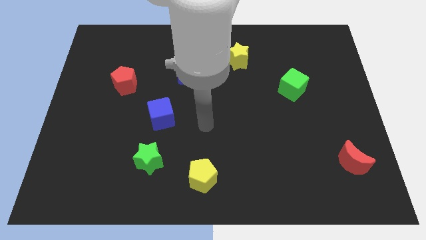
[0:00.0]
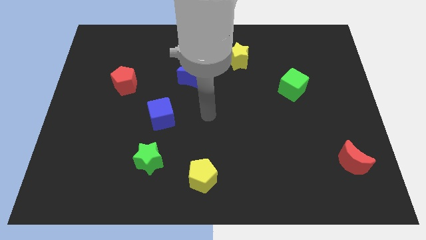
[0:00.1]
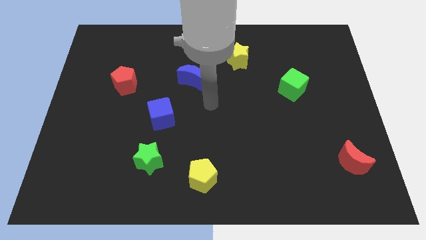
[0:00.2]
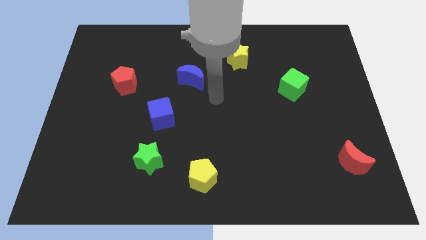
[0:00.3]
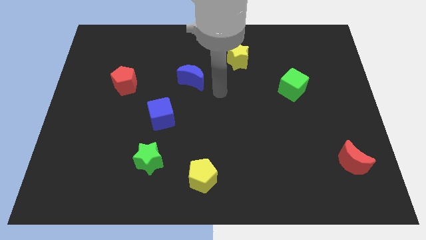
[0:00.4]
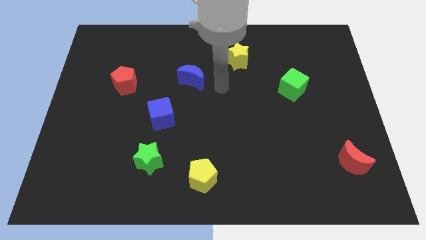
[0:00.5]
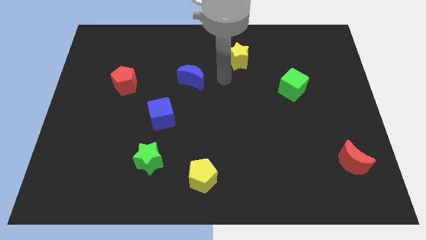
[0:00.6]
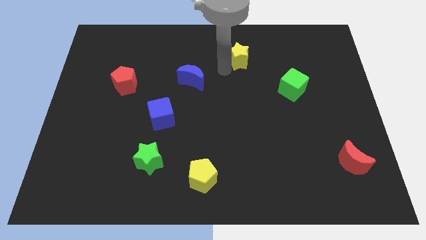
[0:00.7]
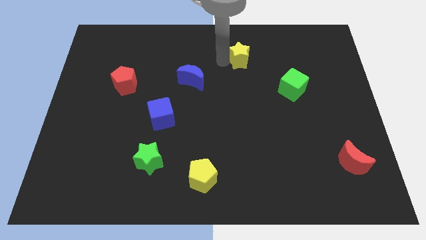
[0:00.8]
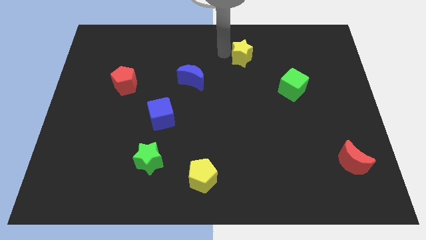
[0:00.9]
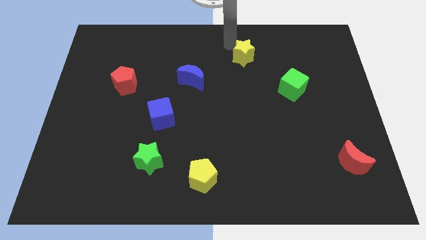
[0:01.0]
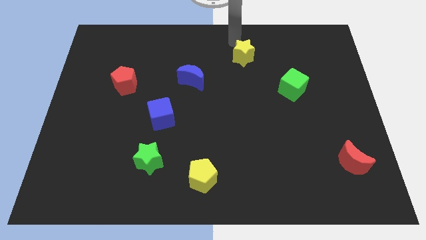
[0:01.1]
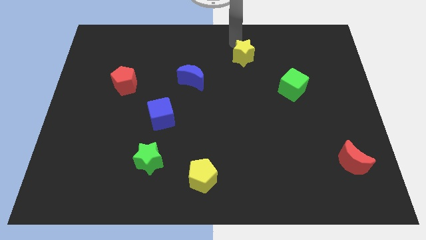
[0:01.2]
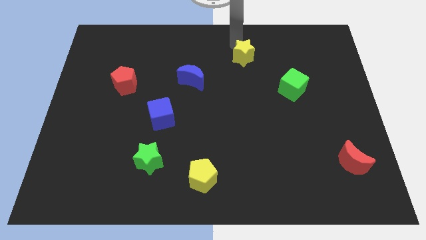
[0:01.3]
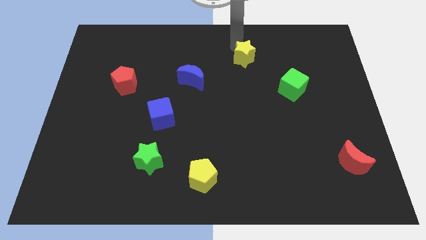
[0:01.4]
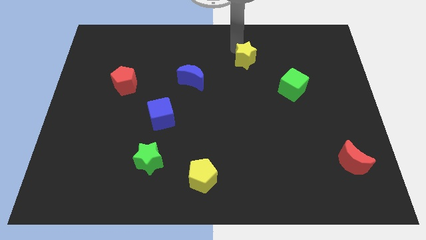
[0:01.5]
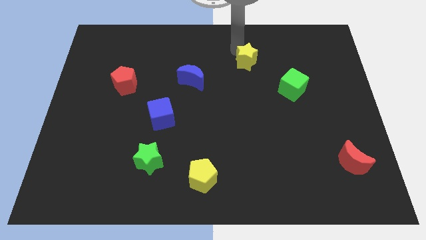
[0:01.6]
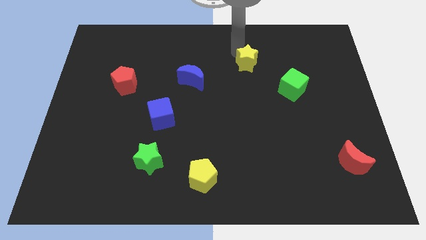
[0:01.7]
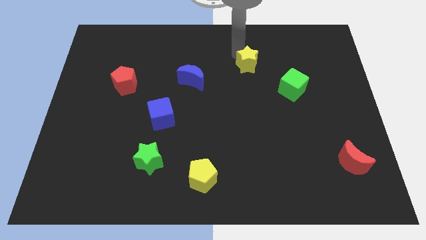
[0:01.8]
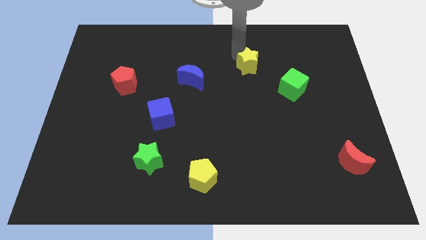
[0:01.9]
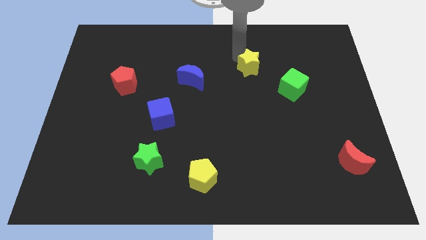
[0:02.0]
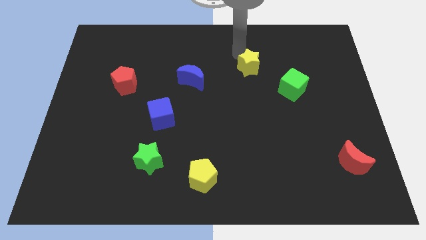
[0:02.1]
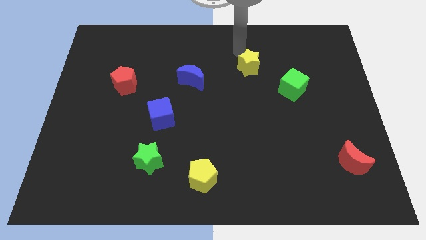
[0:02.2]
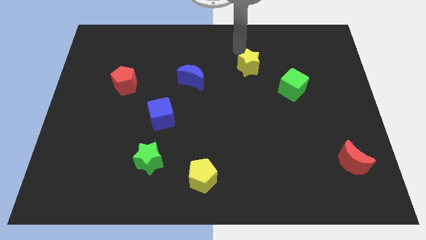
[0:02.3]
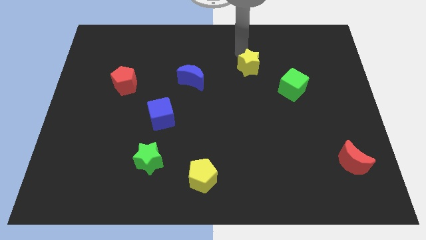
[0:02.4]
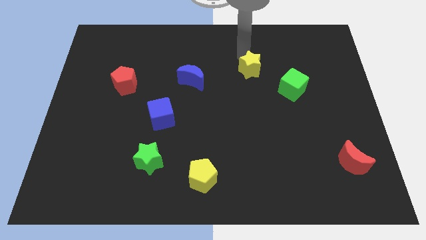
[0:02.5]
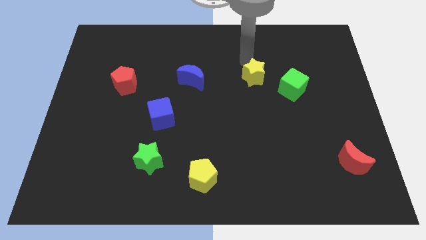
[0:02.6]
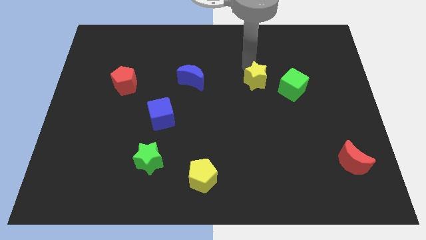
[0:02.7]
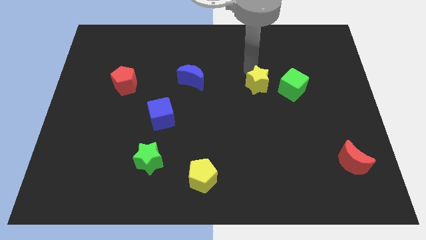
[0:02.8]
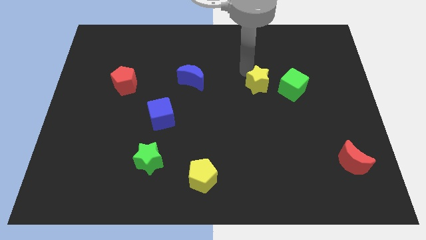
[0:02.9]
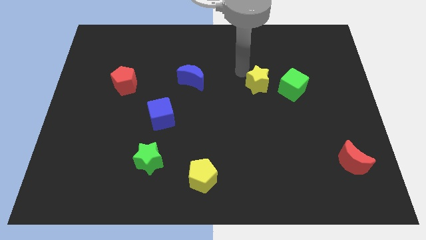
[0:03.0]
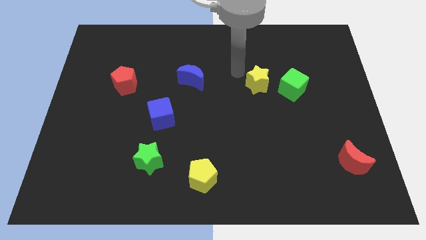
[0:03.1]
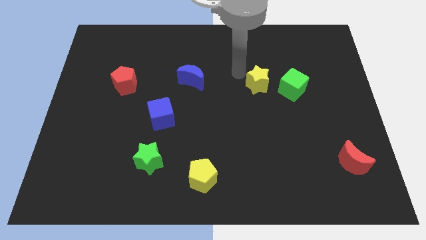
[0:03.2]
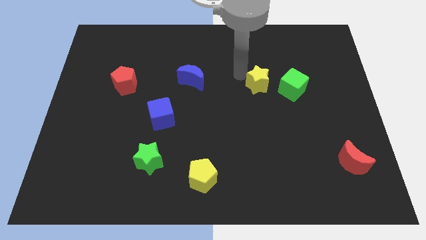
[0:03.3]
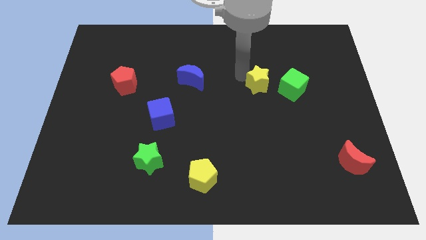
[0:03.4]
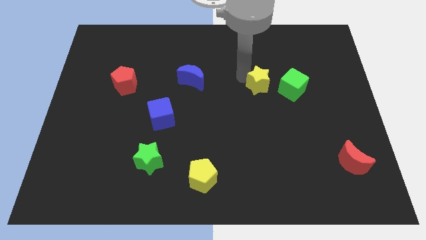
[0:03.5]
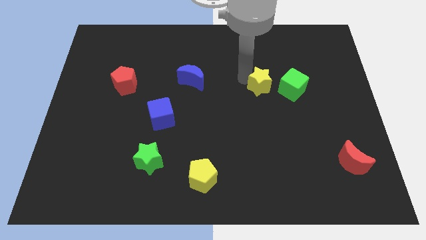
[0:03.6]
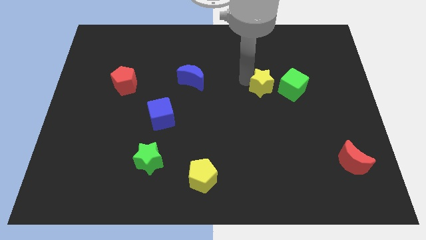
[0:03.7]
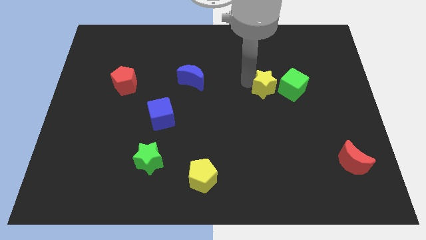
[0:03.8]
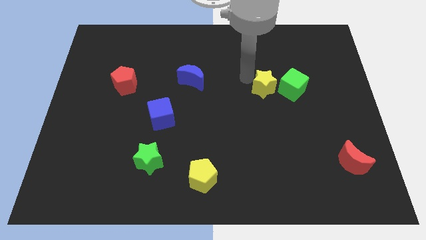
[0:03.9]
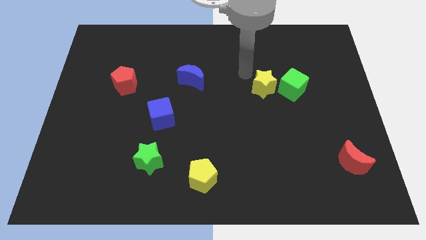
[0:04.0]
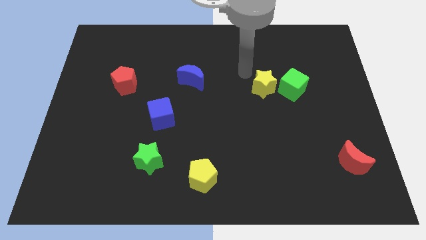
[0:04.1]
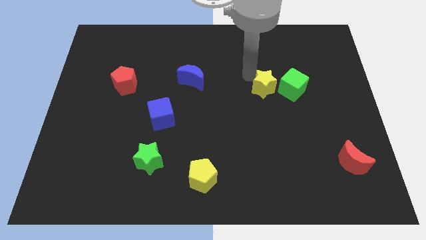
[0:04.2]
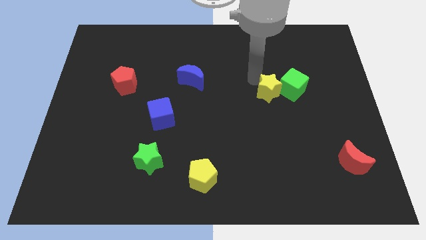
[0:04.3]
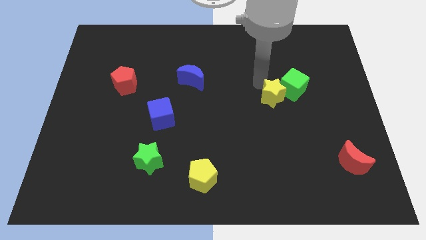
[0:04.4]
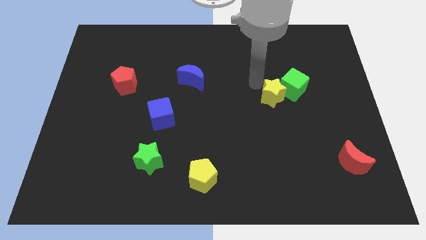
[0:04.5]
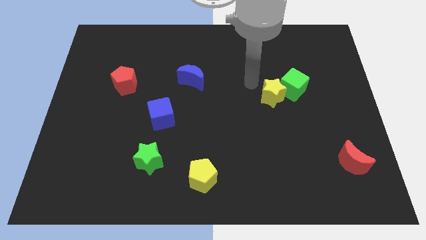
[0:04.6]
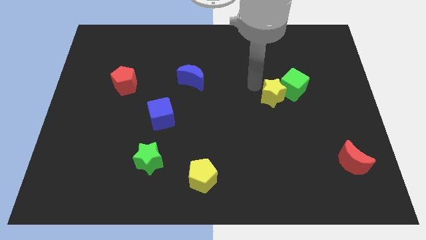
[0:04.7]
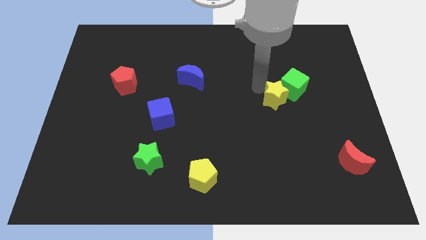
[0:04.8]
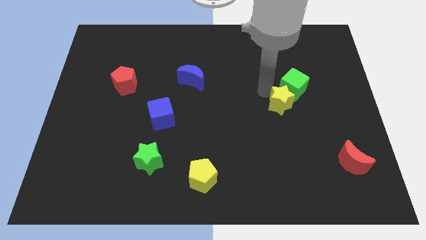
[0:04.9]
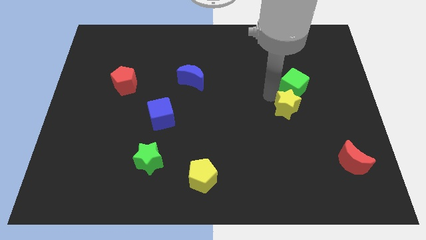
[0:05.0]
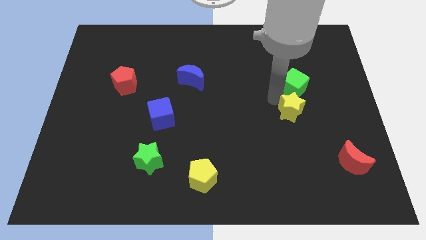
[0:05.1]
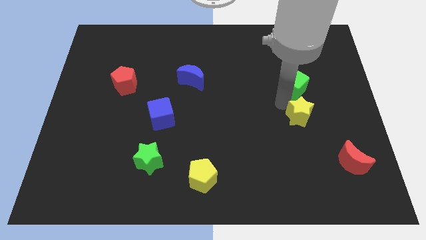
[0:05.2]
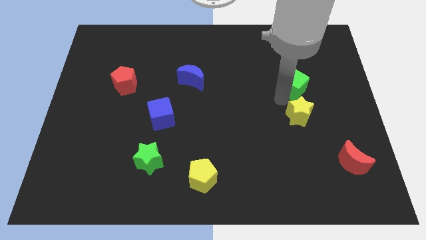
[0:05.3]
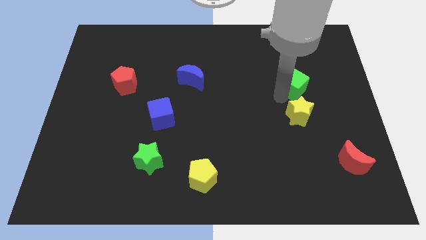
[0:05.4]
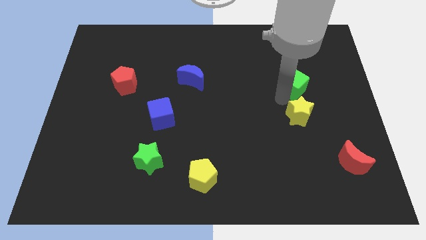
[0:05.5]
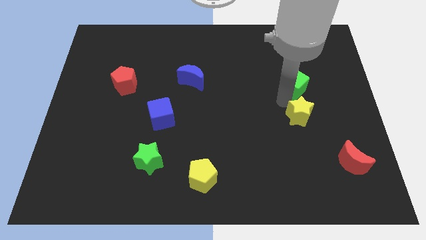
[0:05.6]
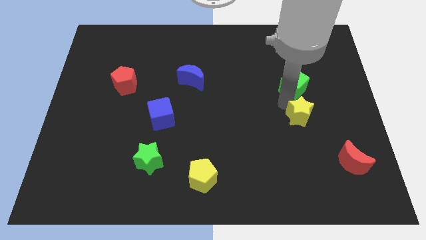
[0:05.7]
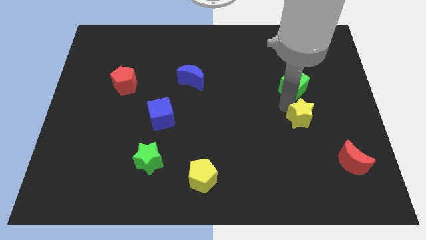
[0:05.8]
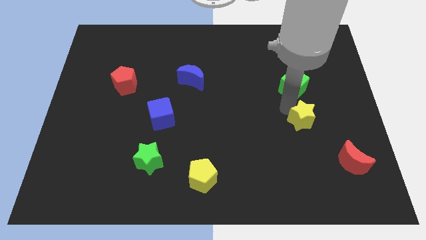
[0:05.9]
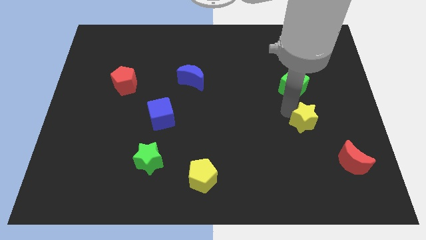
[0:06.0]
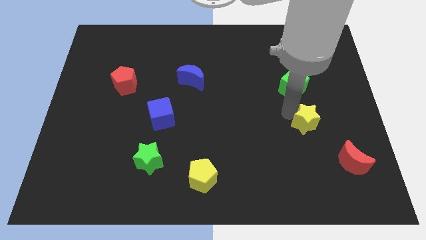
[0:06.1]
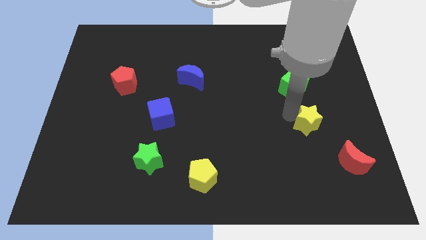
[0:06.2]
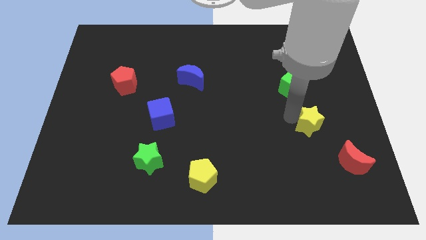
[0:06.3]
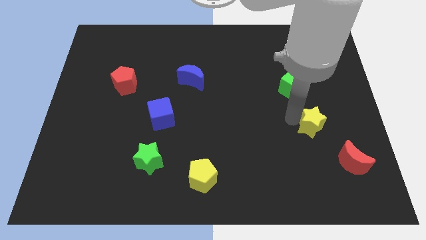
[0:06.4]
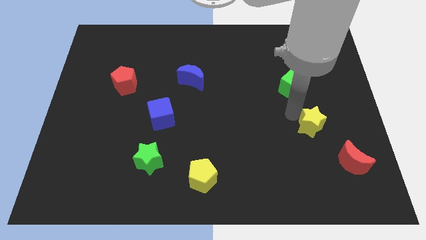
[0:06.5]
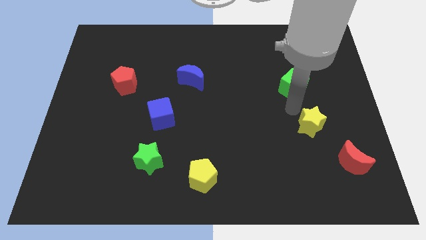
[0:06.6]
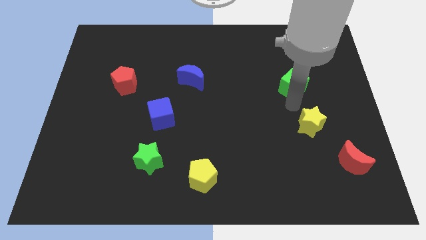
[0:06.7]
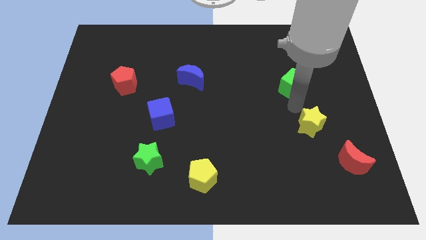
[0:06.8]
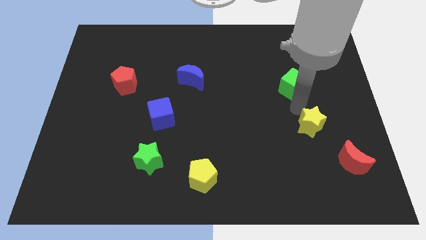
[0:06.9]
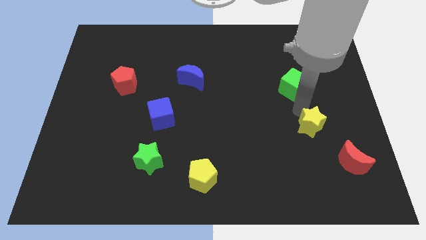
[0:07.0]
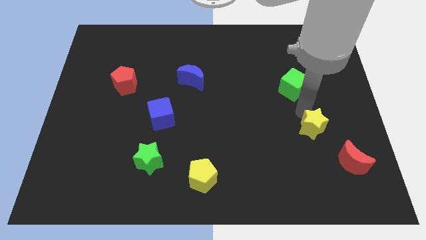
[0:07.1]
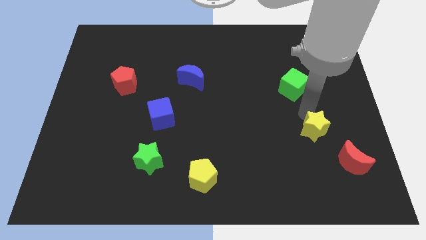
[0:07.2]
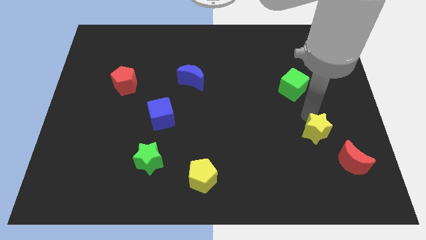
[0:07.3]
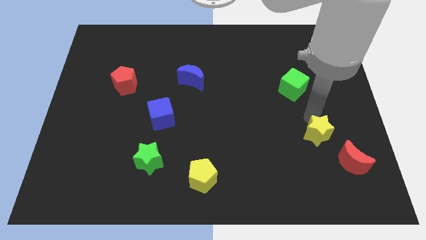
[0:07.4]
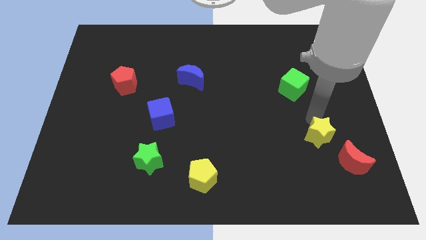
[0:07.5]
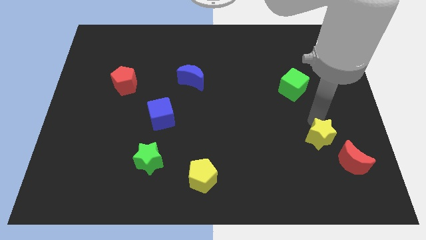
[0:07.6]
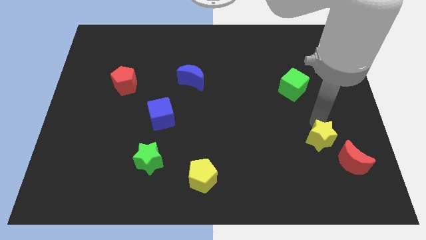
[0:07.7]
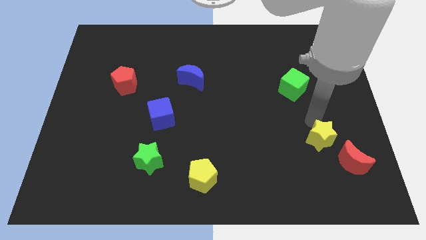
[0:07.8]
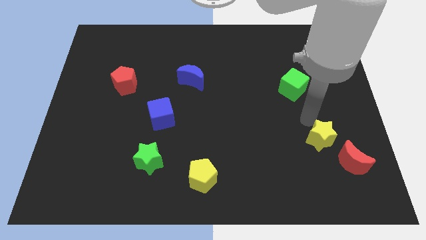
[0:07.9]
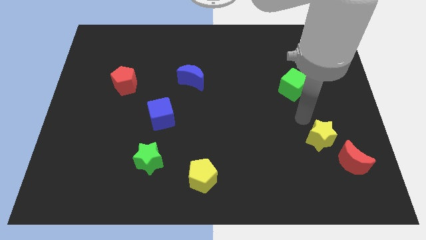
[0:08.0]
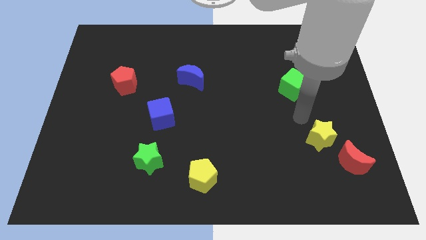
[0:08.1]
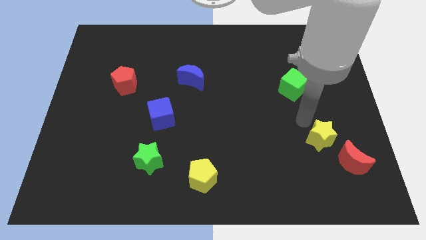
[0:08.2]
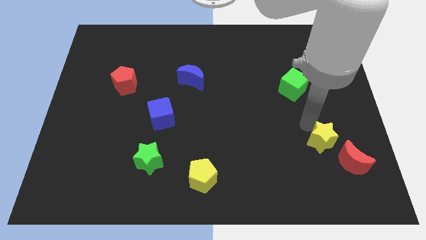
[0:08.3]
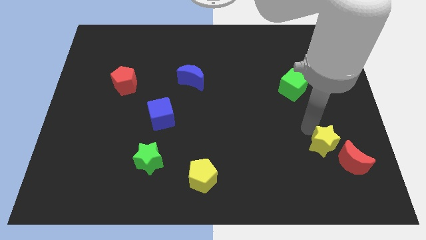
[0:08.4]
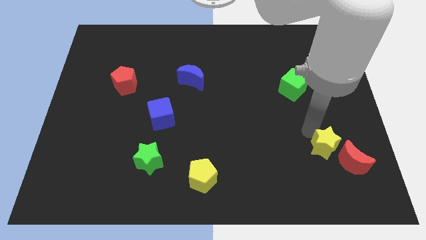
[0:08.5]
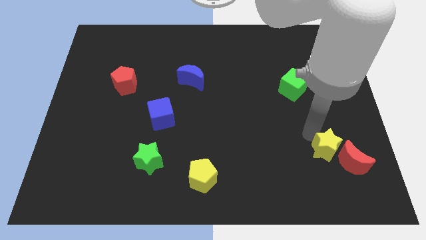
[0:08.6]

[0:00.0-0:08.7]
slide the yellow star to the red moon
